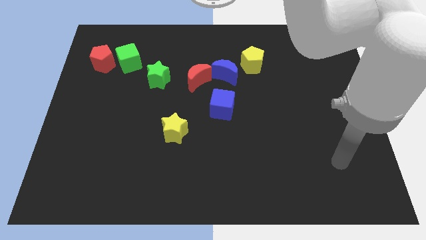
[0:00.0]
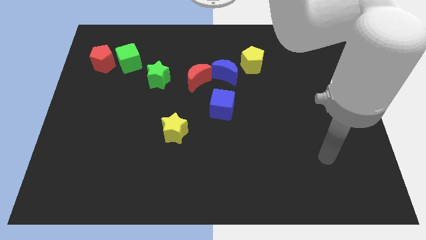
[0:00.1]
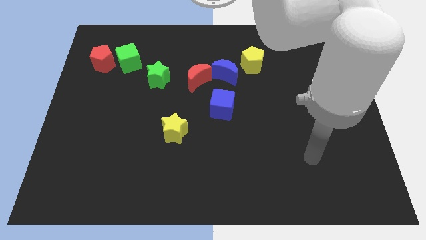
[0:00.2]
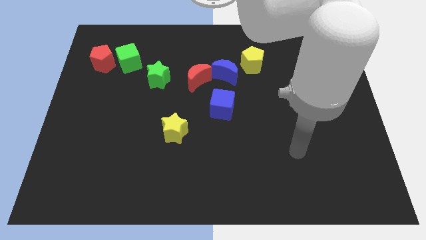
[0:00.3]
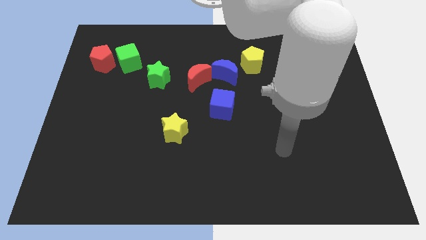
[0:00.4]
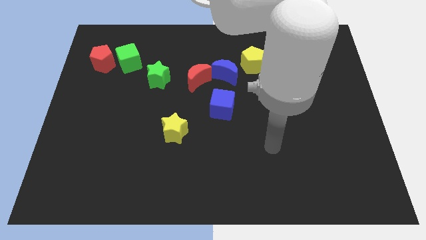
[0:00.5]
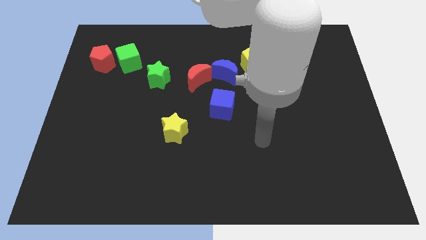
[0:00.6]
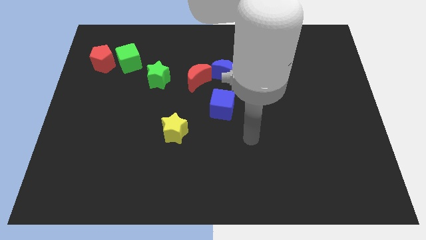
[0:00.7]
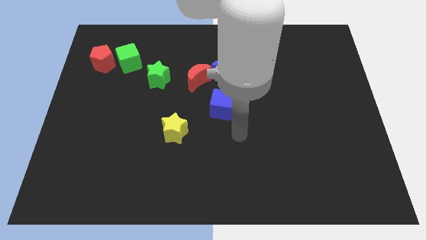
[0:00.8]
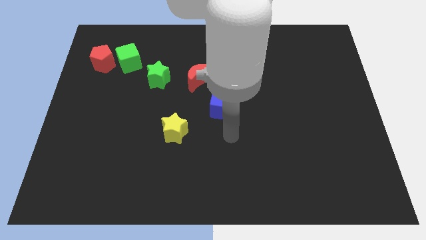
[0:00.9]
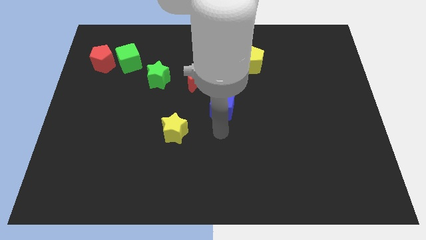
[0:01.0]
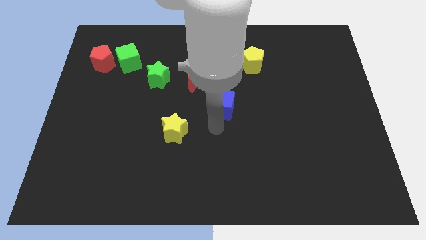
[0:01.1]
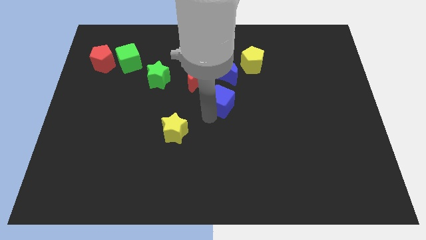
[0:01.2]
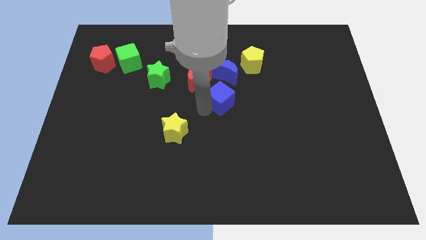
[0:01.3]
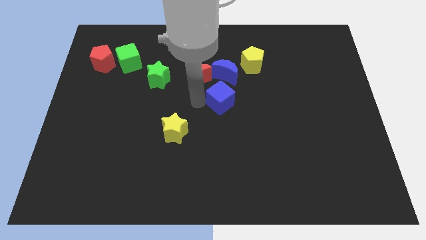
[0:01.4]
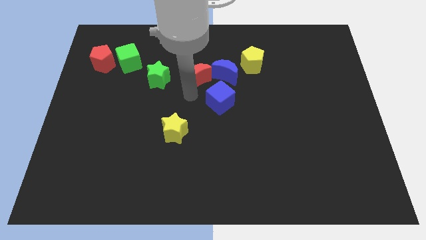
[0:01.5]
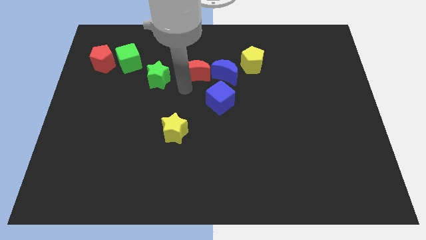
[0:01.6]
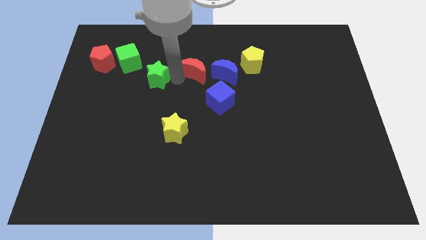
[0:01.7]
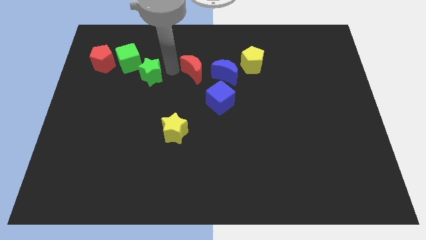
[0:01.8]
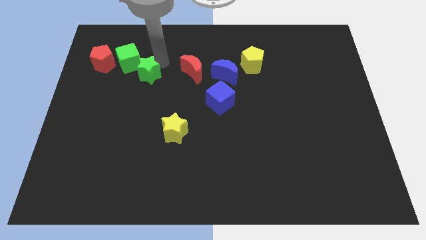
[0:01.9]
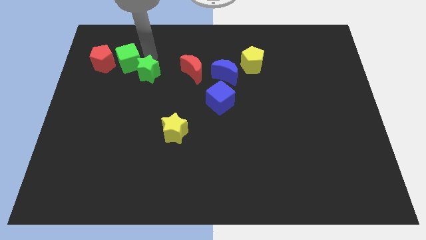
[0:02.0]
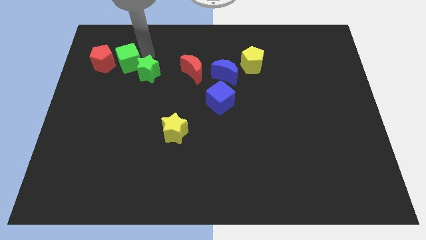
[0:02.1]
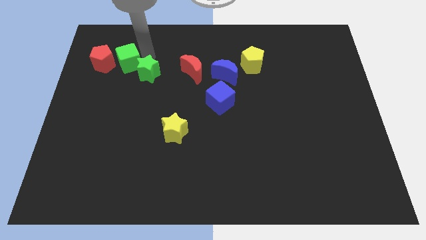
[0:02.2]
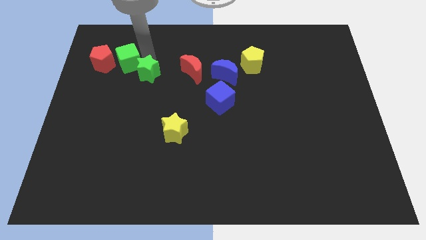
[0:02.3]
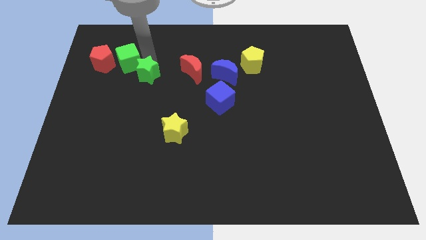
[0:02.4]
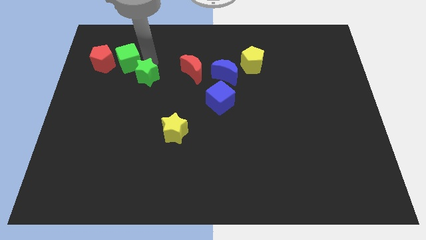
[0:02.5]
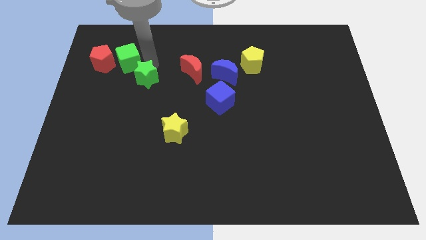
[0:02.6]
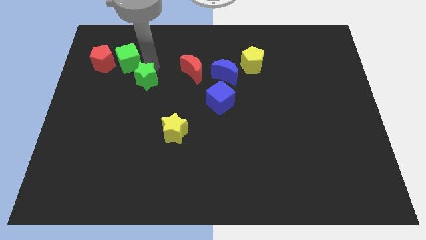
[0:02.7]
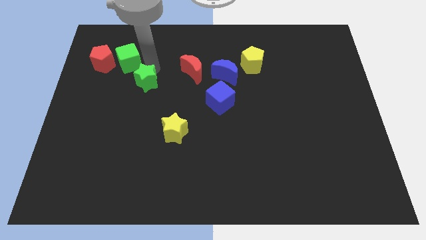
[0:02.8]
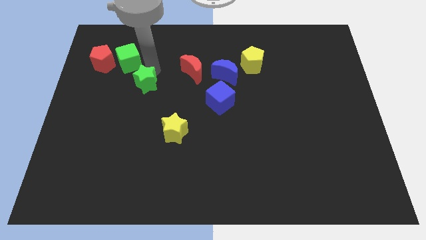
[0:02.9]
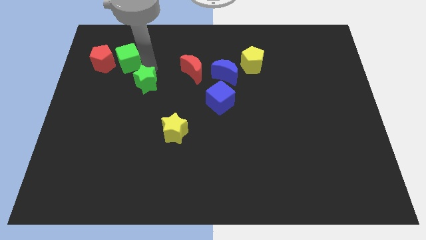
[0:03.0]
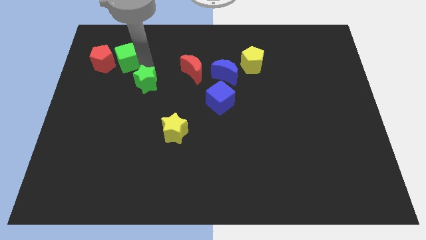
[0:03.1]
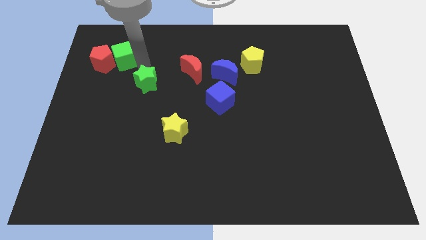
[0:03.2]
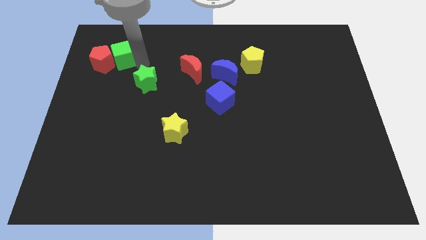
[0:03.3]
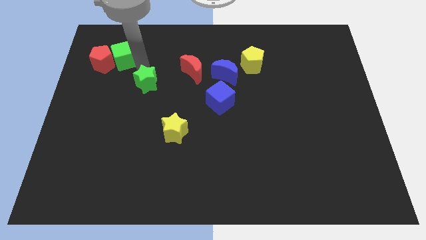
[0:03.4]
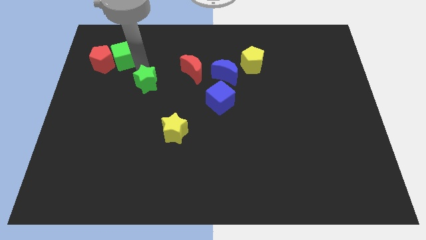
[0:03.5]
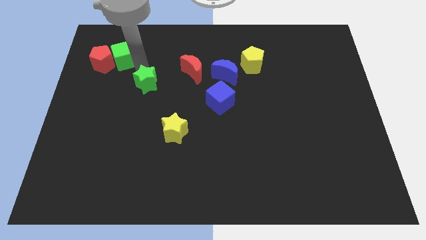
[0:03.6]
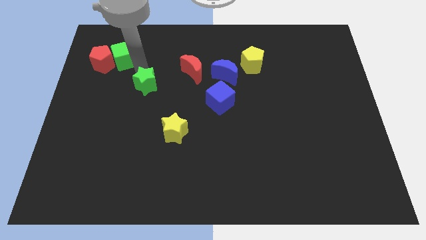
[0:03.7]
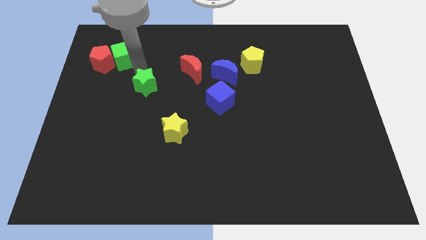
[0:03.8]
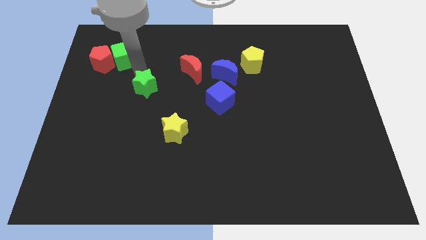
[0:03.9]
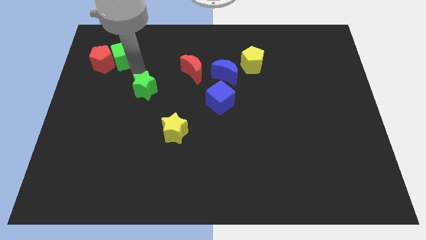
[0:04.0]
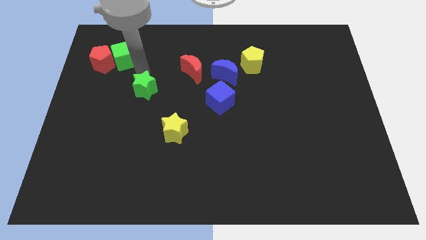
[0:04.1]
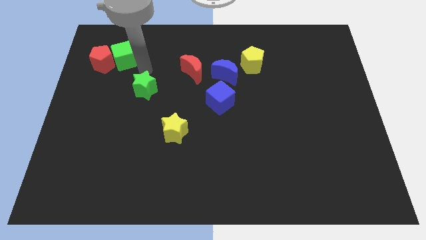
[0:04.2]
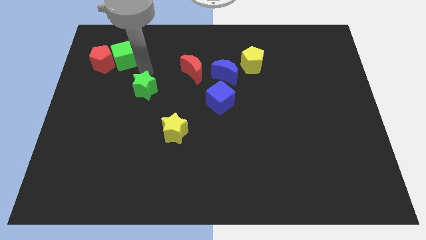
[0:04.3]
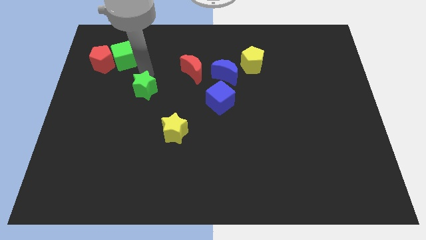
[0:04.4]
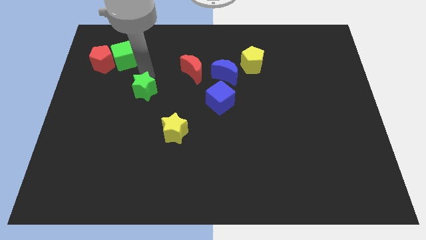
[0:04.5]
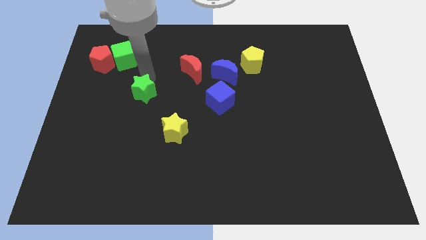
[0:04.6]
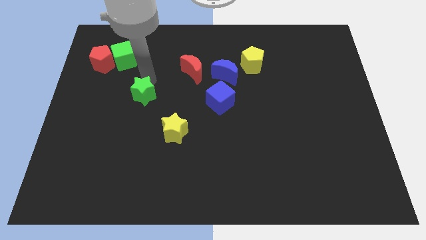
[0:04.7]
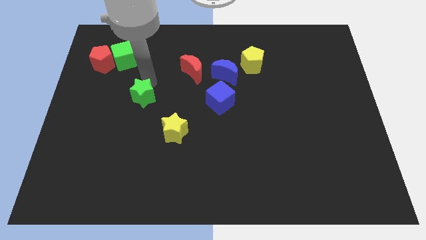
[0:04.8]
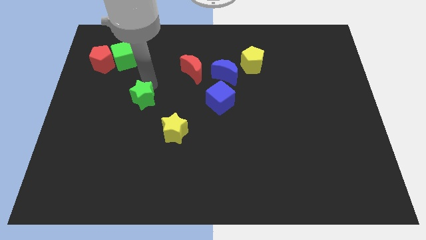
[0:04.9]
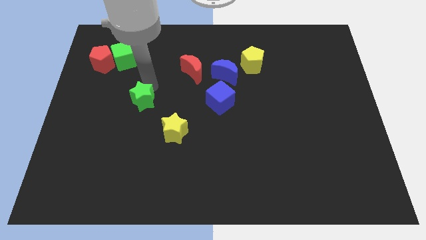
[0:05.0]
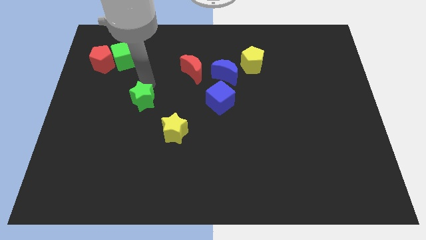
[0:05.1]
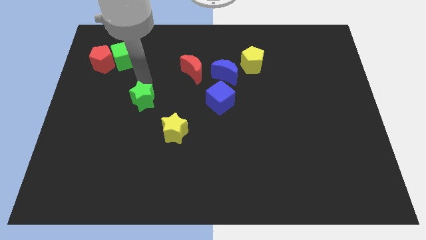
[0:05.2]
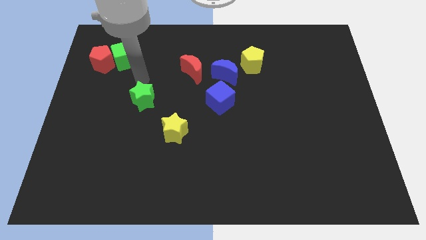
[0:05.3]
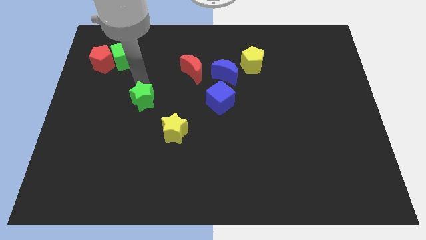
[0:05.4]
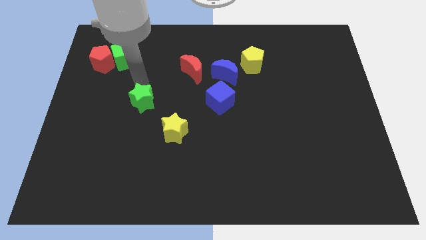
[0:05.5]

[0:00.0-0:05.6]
move the green star somewhat down

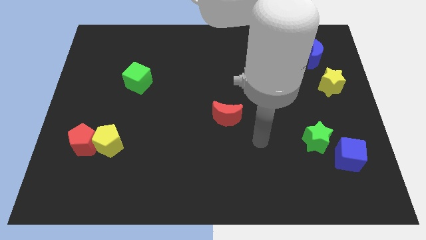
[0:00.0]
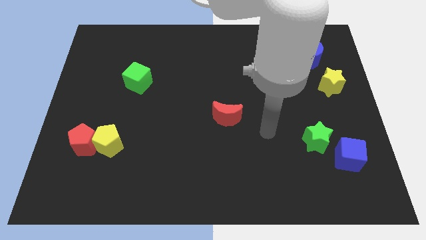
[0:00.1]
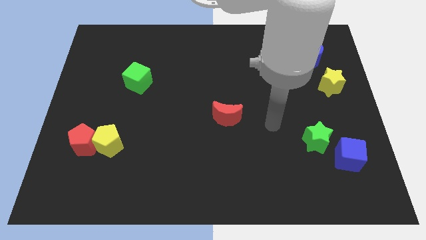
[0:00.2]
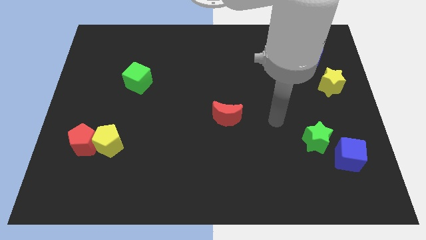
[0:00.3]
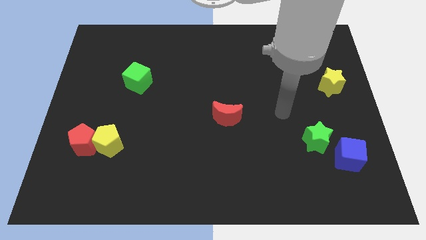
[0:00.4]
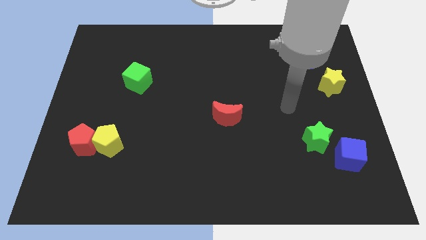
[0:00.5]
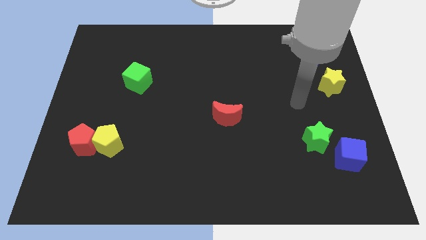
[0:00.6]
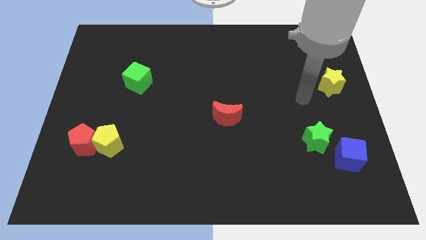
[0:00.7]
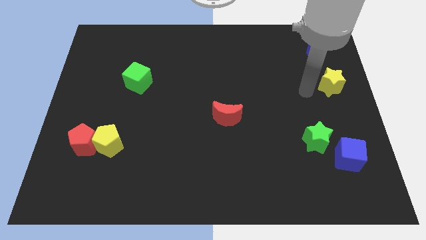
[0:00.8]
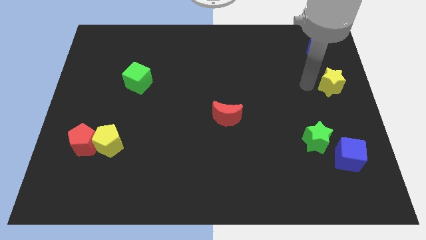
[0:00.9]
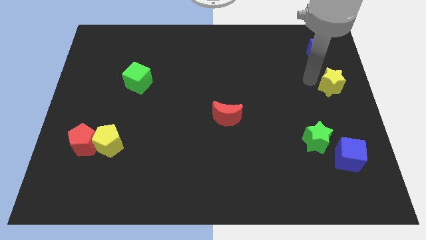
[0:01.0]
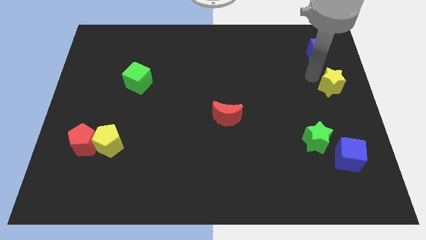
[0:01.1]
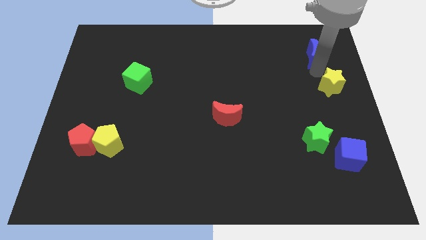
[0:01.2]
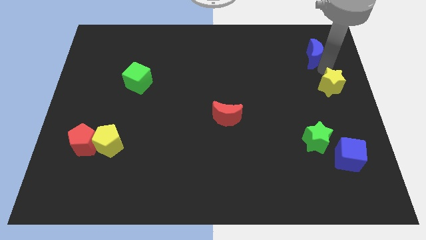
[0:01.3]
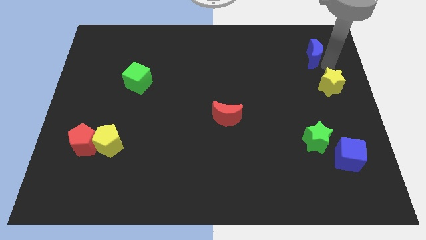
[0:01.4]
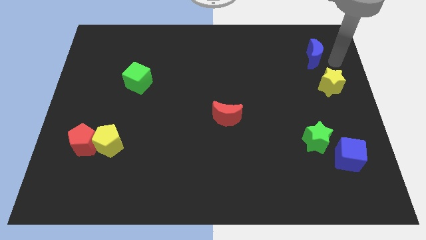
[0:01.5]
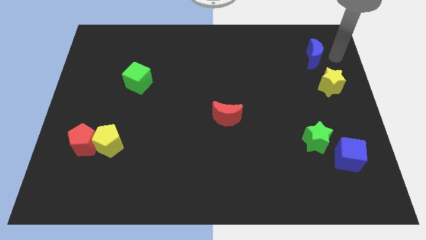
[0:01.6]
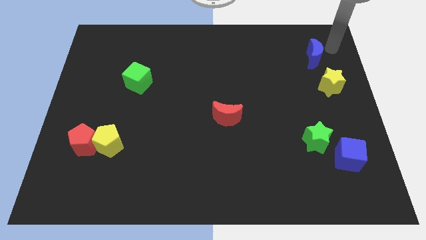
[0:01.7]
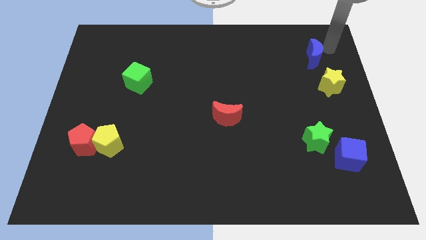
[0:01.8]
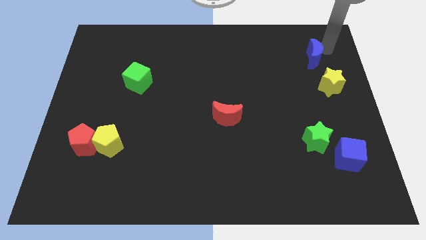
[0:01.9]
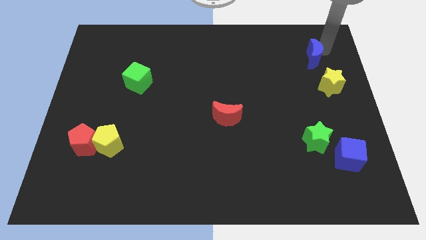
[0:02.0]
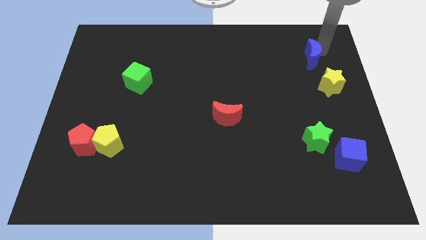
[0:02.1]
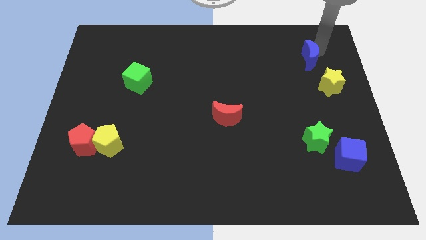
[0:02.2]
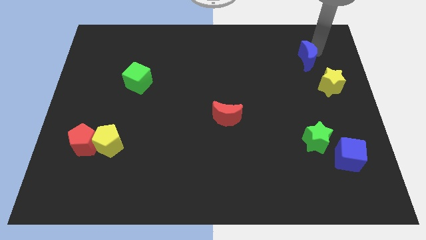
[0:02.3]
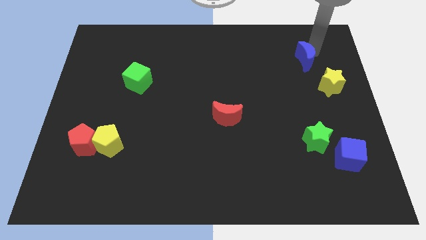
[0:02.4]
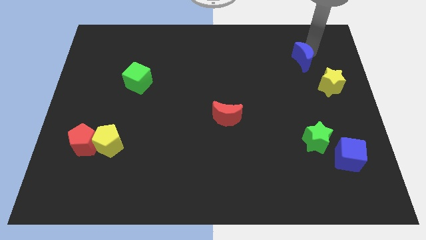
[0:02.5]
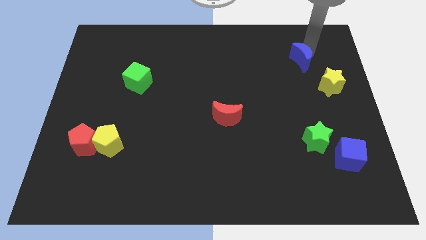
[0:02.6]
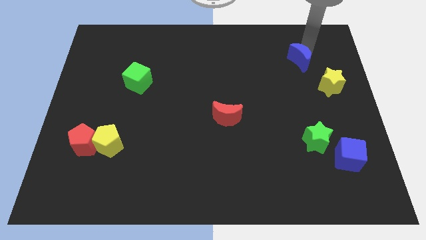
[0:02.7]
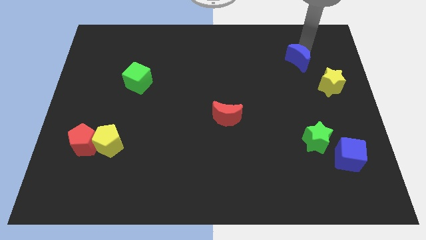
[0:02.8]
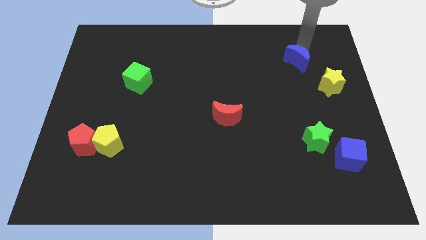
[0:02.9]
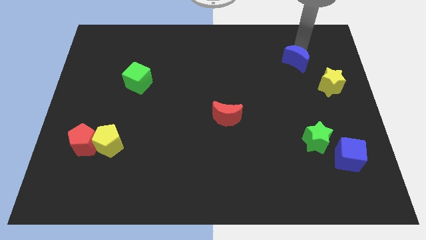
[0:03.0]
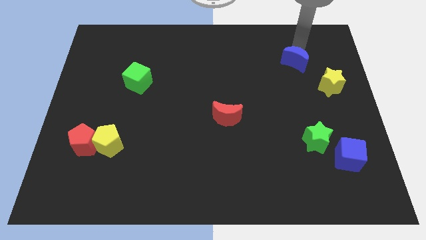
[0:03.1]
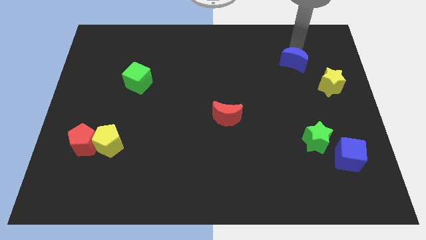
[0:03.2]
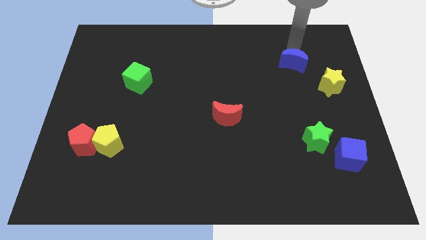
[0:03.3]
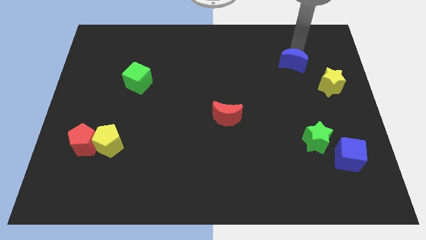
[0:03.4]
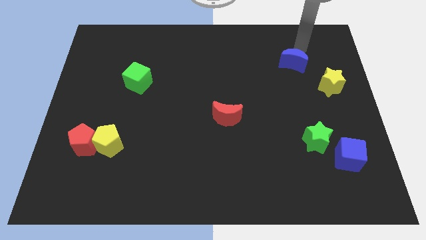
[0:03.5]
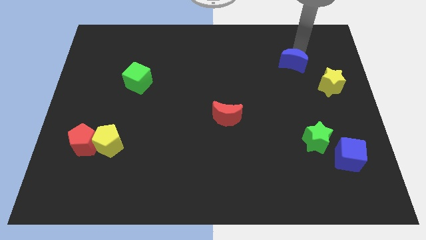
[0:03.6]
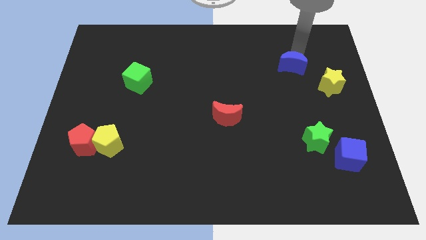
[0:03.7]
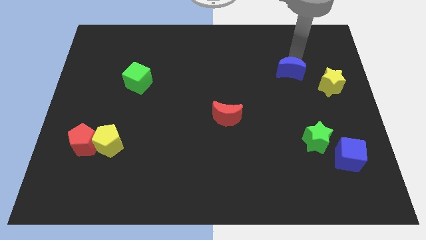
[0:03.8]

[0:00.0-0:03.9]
slightly slide the blue moon diagonally down and left
